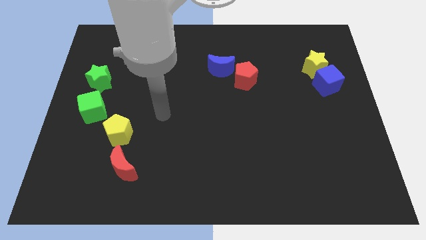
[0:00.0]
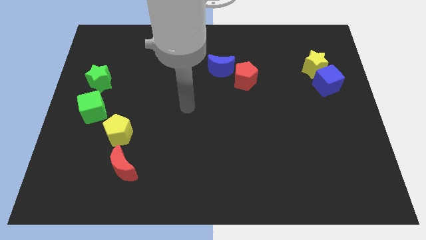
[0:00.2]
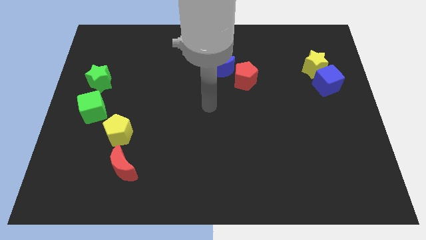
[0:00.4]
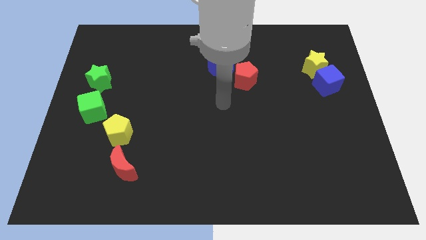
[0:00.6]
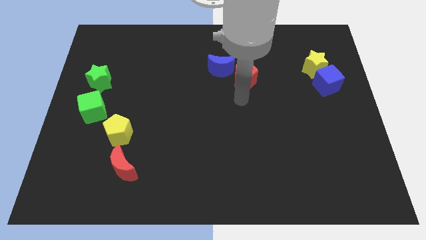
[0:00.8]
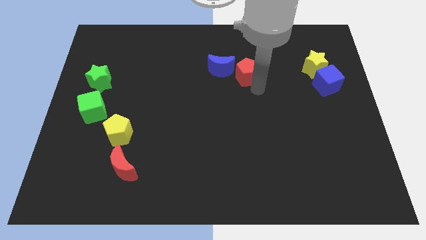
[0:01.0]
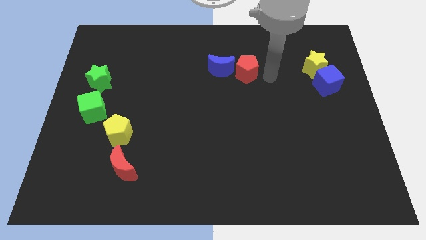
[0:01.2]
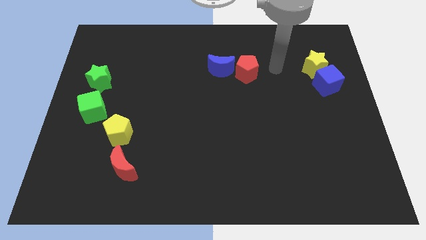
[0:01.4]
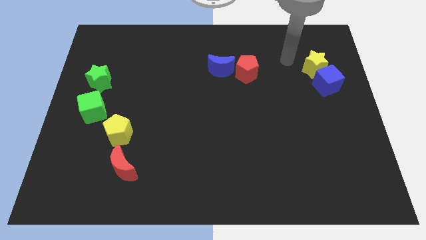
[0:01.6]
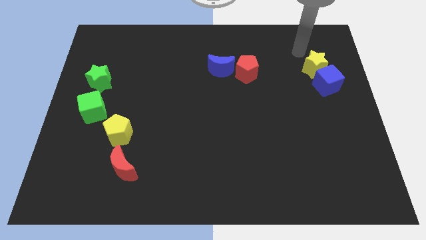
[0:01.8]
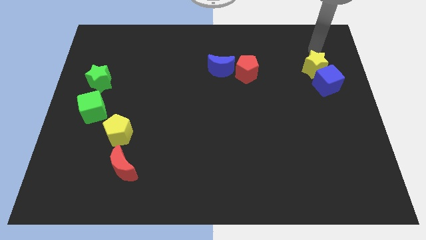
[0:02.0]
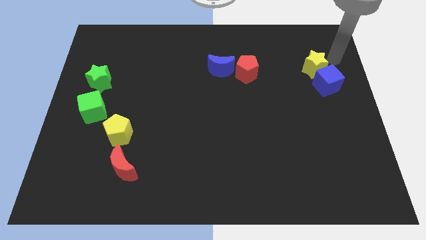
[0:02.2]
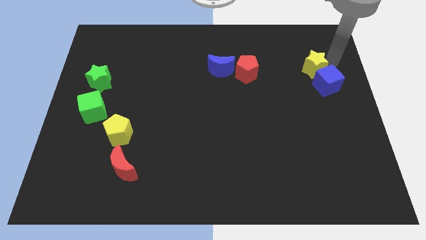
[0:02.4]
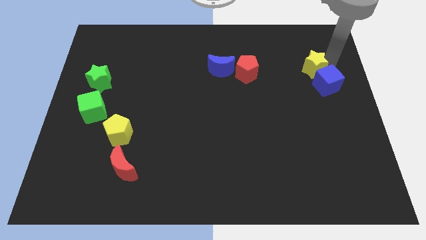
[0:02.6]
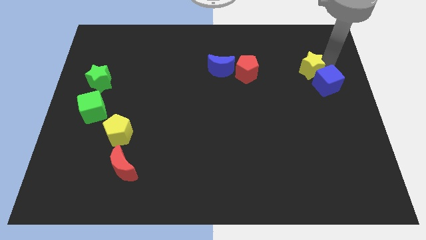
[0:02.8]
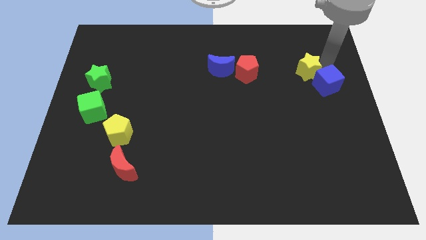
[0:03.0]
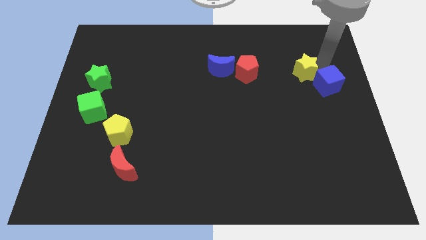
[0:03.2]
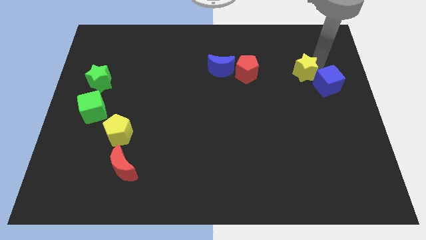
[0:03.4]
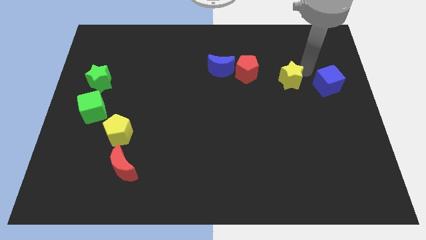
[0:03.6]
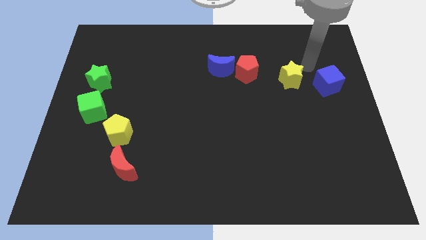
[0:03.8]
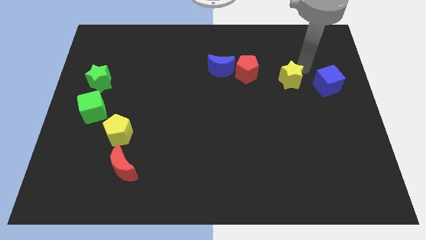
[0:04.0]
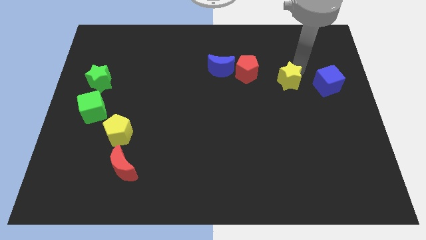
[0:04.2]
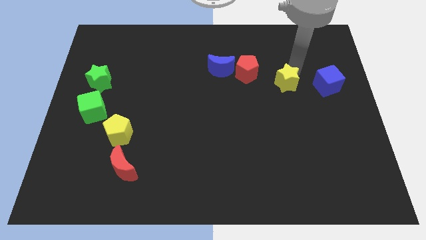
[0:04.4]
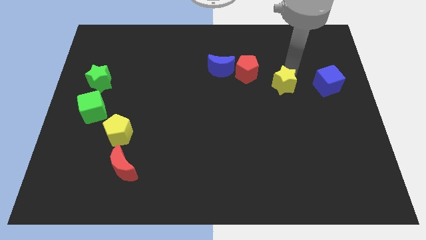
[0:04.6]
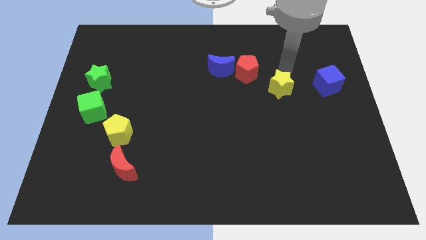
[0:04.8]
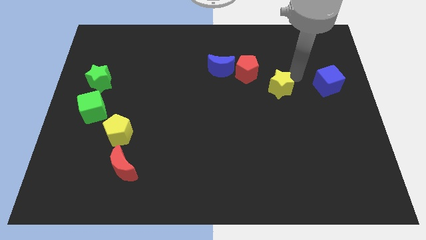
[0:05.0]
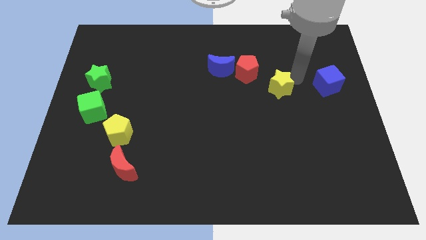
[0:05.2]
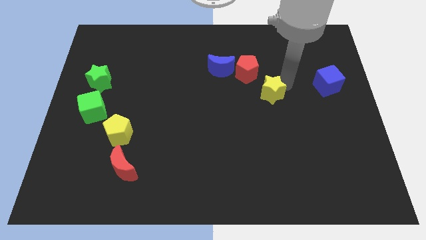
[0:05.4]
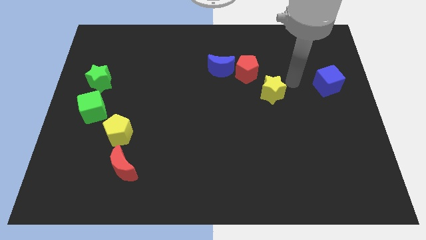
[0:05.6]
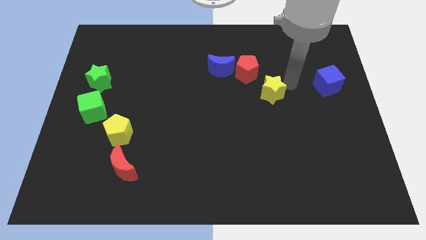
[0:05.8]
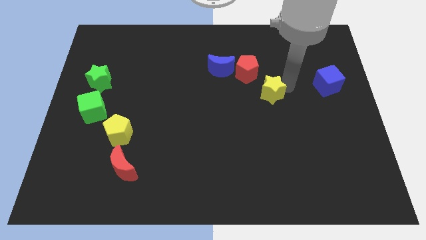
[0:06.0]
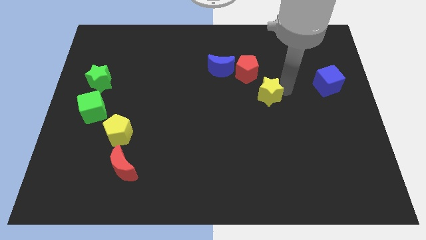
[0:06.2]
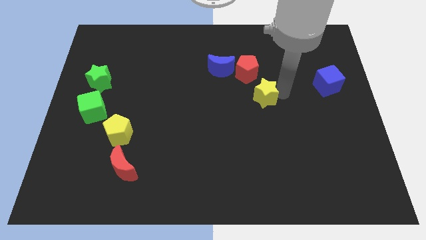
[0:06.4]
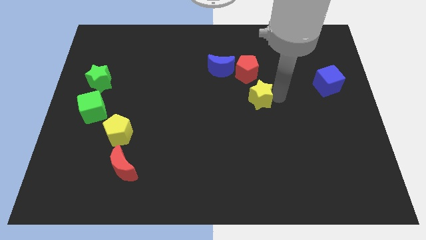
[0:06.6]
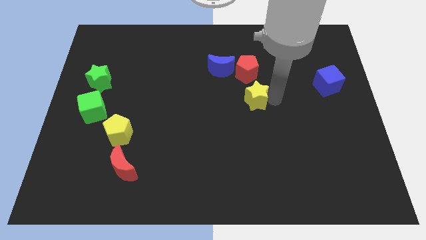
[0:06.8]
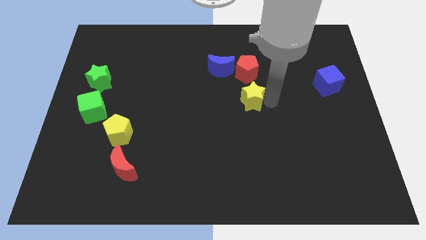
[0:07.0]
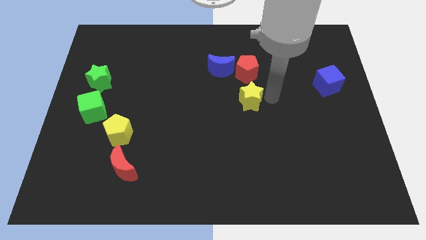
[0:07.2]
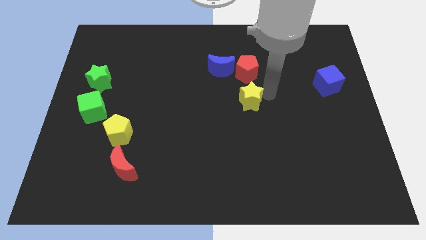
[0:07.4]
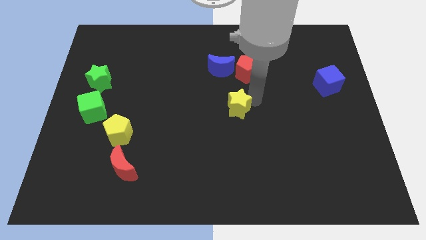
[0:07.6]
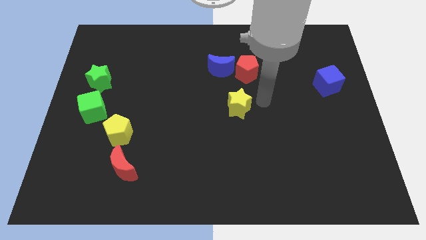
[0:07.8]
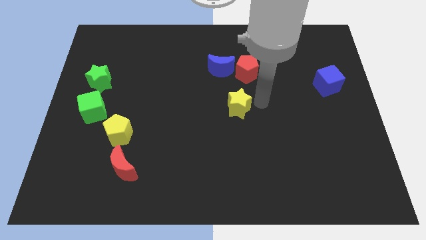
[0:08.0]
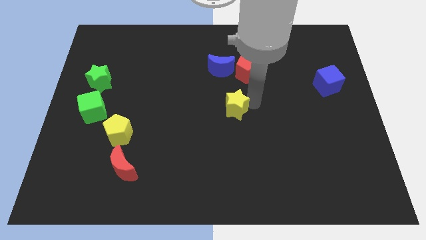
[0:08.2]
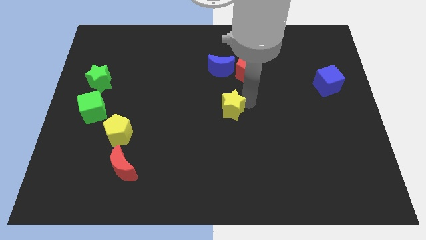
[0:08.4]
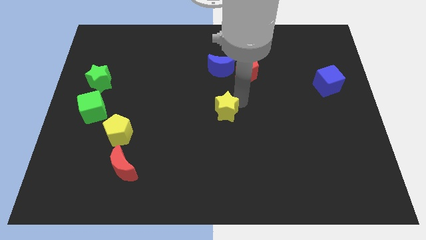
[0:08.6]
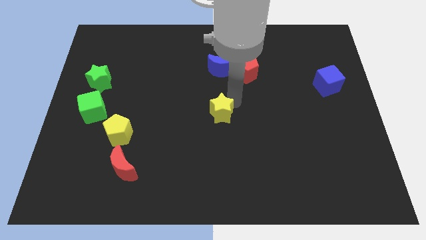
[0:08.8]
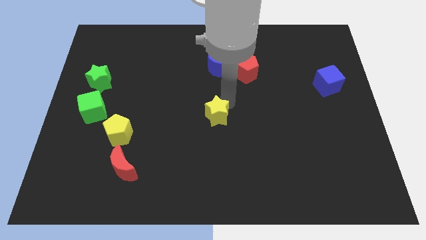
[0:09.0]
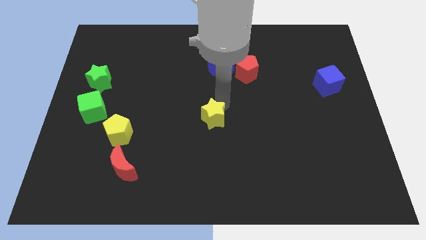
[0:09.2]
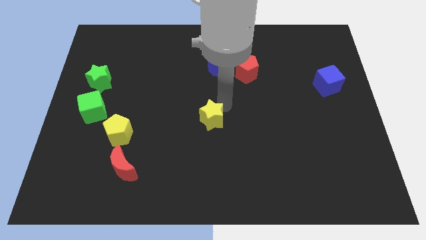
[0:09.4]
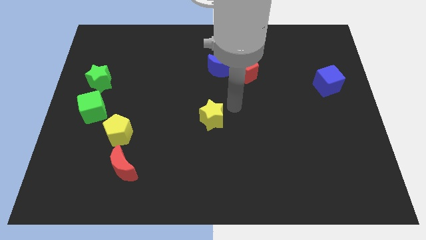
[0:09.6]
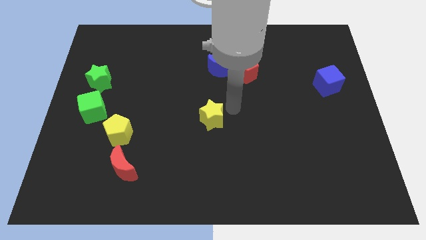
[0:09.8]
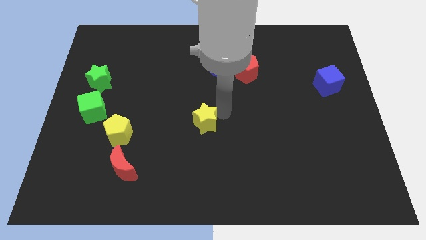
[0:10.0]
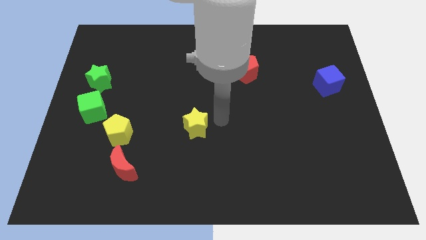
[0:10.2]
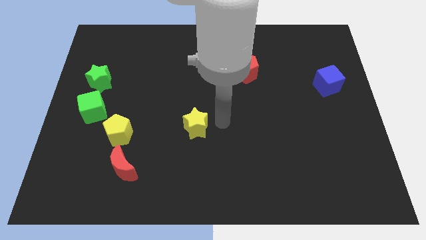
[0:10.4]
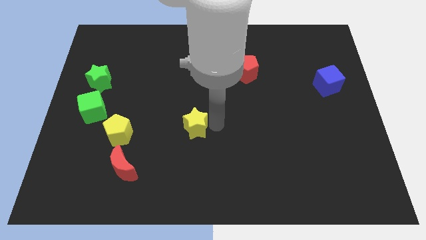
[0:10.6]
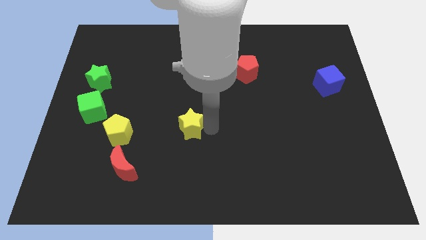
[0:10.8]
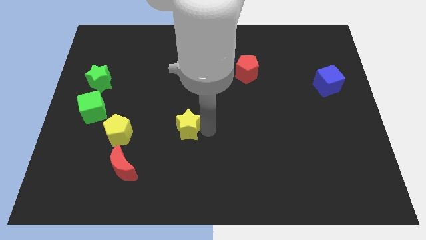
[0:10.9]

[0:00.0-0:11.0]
push the yellow star right of the yellow pentagon

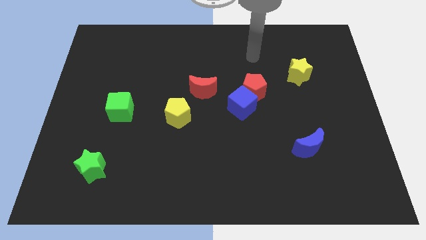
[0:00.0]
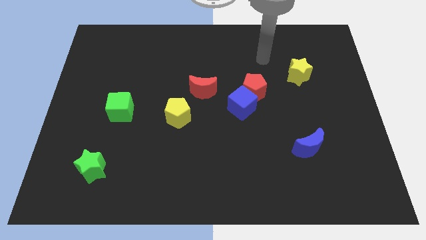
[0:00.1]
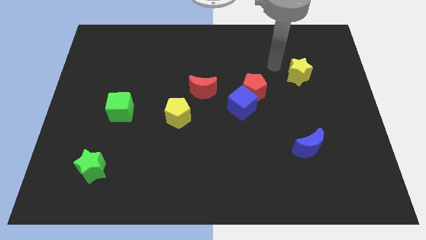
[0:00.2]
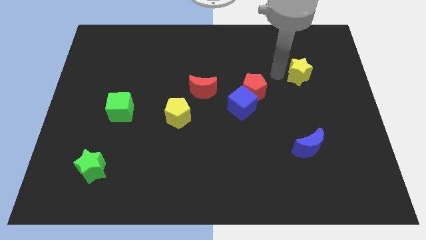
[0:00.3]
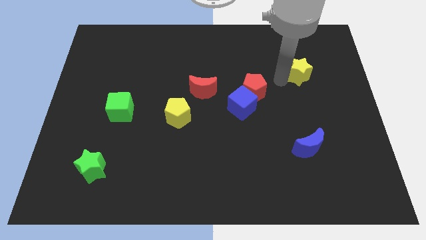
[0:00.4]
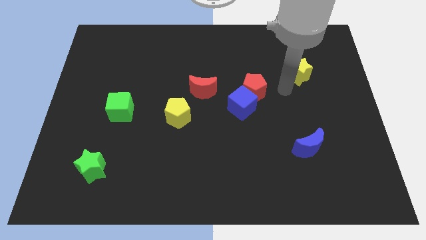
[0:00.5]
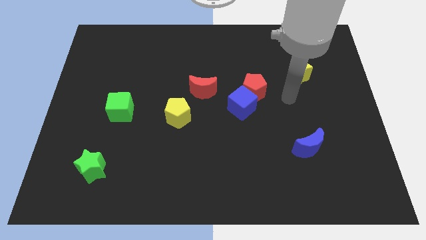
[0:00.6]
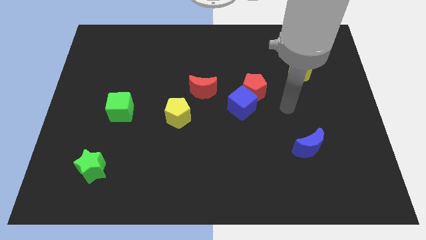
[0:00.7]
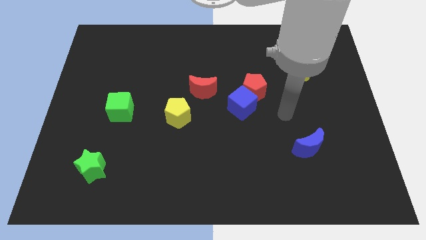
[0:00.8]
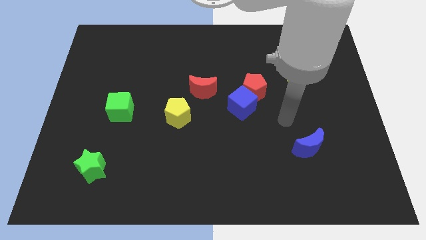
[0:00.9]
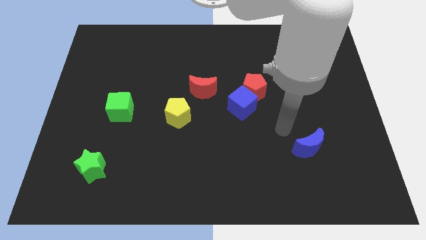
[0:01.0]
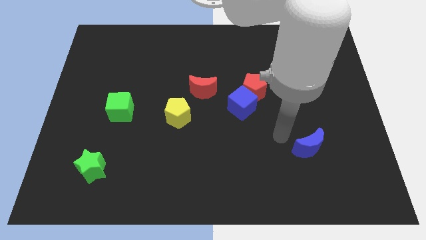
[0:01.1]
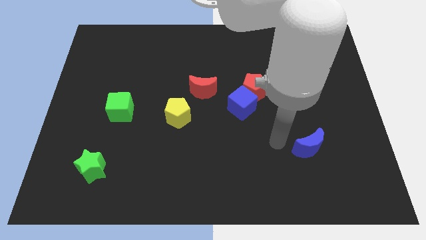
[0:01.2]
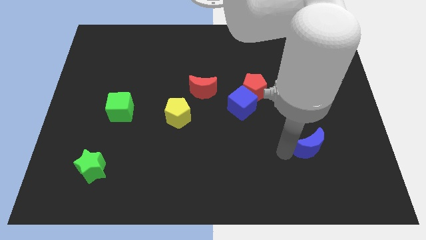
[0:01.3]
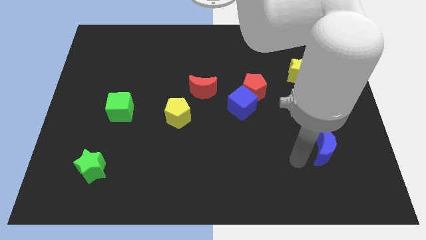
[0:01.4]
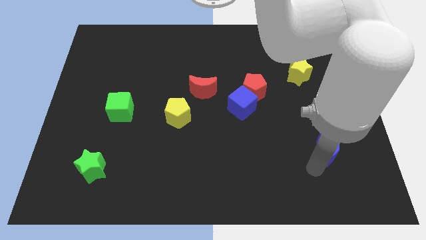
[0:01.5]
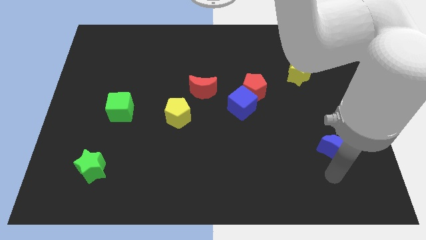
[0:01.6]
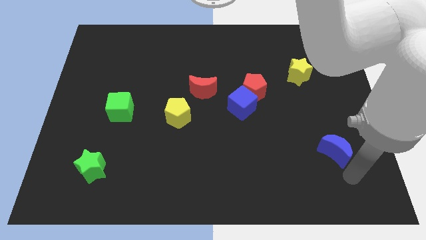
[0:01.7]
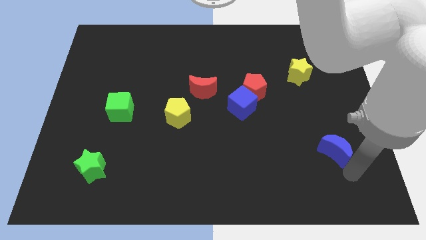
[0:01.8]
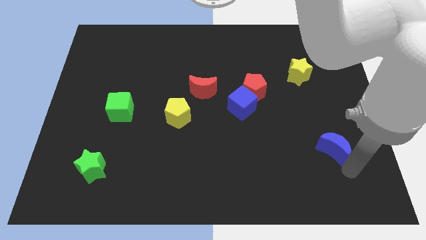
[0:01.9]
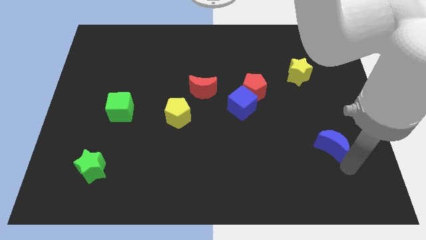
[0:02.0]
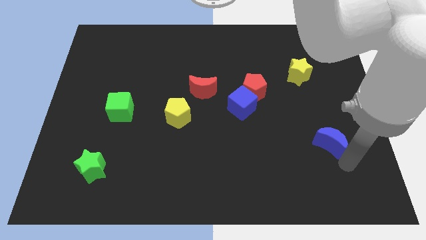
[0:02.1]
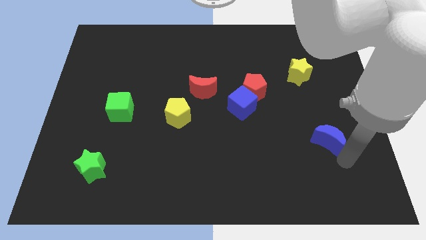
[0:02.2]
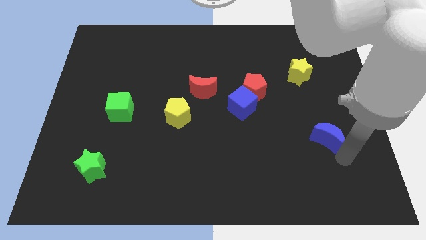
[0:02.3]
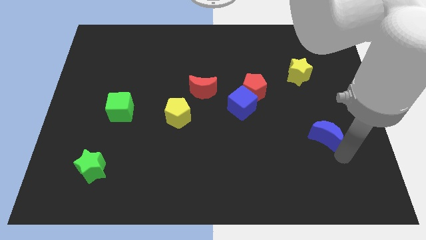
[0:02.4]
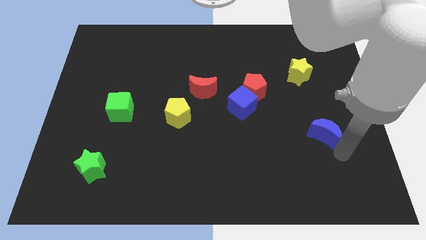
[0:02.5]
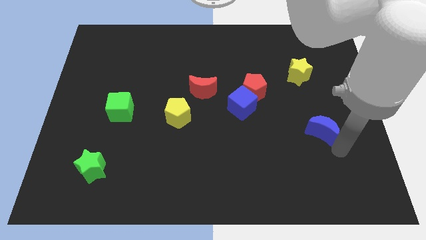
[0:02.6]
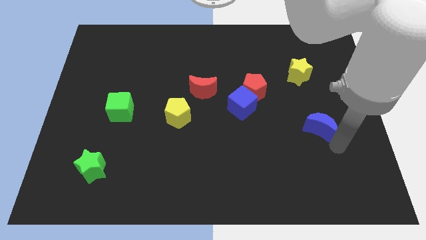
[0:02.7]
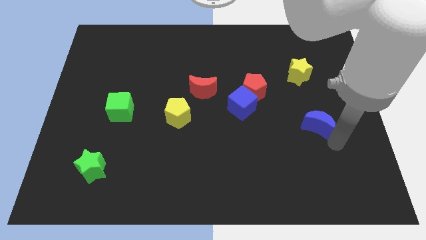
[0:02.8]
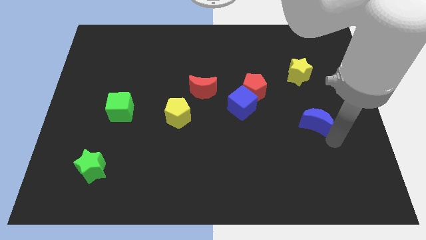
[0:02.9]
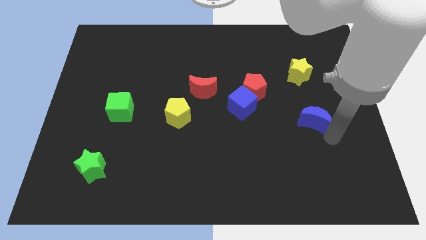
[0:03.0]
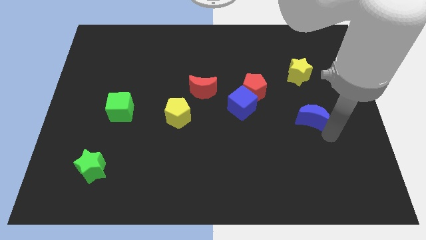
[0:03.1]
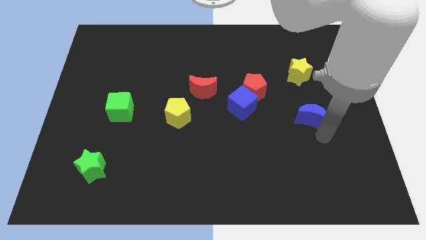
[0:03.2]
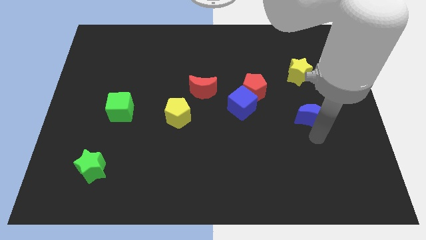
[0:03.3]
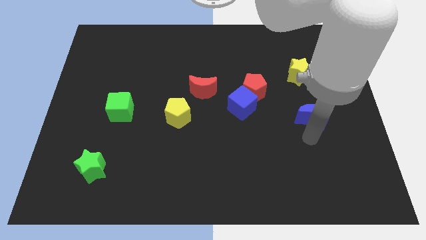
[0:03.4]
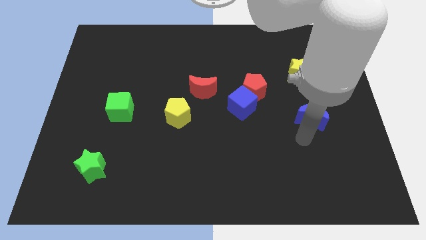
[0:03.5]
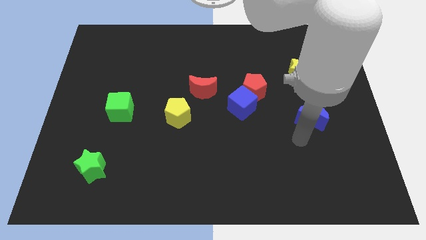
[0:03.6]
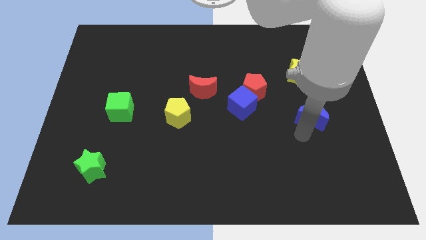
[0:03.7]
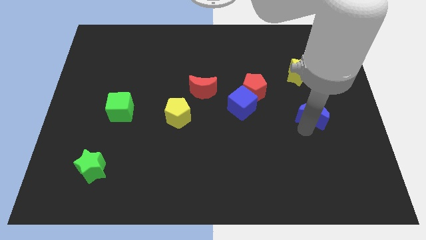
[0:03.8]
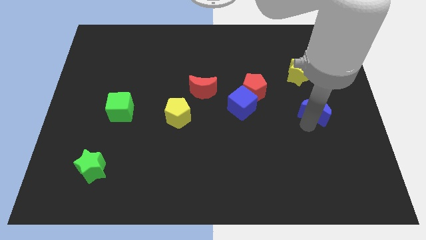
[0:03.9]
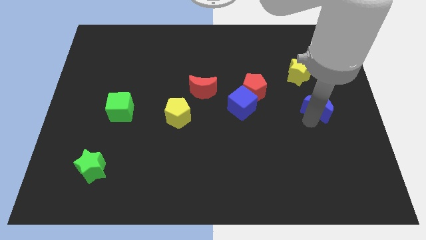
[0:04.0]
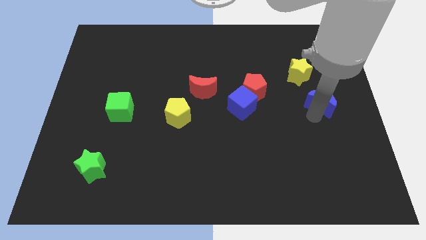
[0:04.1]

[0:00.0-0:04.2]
put the blue moon to the bottom right of the yellow star
